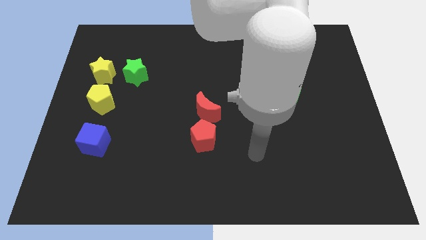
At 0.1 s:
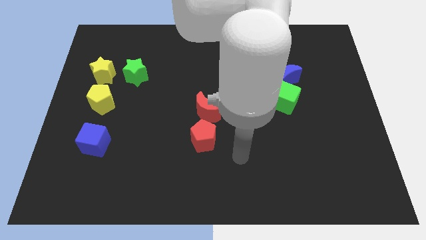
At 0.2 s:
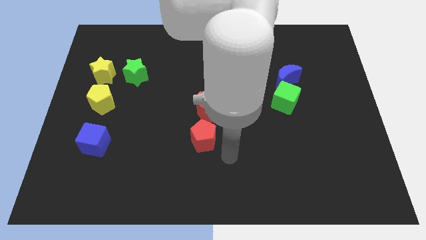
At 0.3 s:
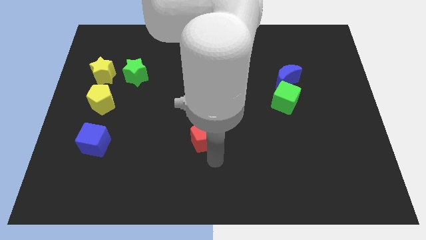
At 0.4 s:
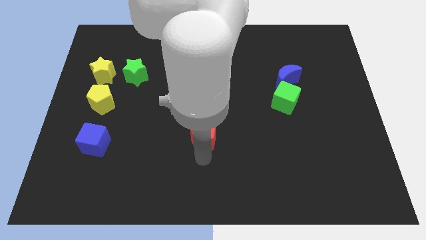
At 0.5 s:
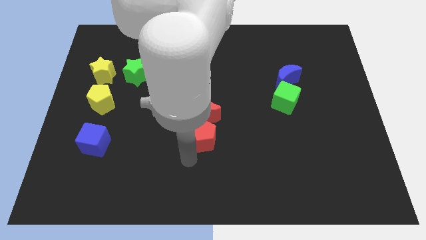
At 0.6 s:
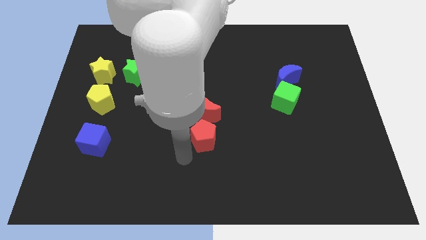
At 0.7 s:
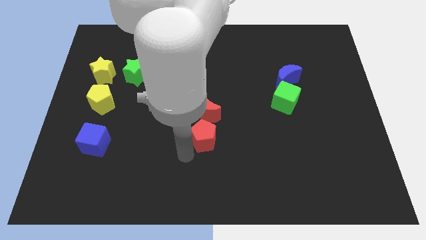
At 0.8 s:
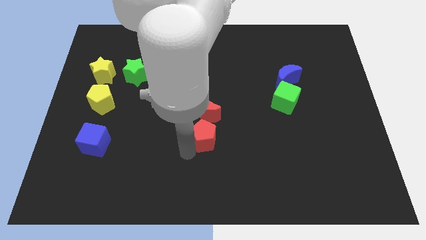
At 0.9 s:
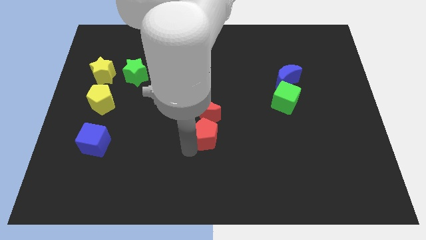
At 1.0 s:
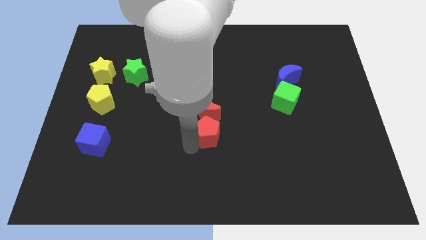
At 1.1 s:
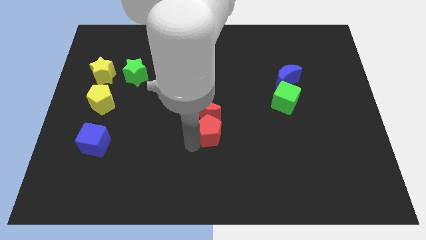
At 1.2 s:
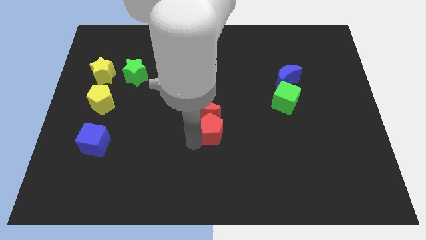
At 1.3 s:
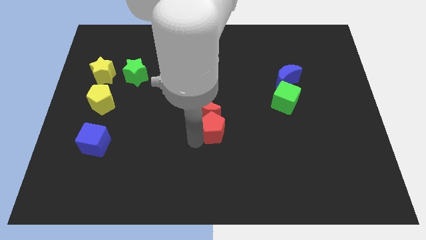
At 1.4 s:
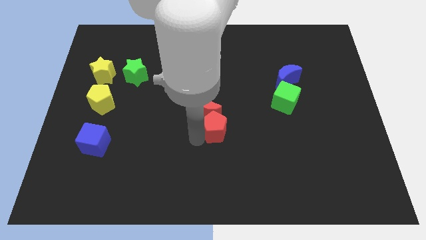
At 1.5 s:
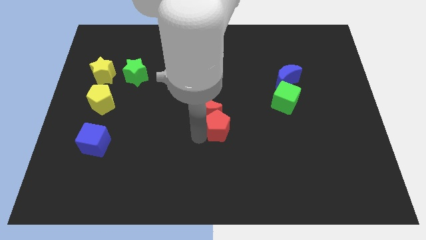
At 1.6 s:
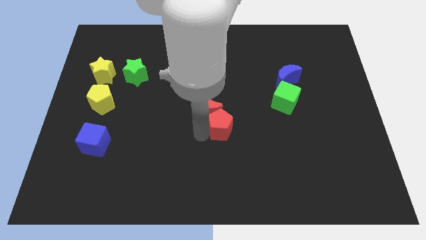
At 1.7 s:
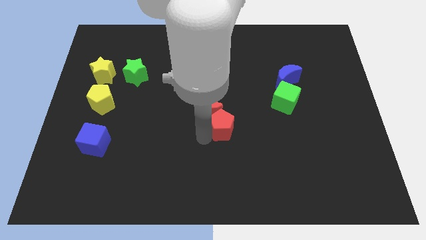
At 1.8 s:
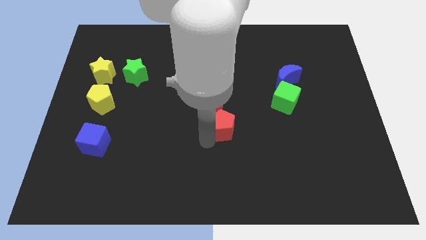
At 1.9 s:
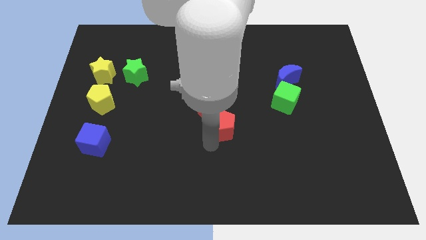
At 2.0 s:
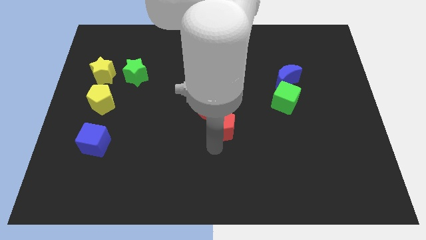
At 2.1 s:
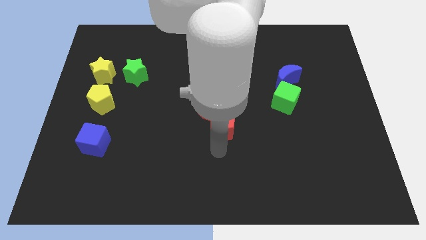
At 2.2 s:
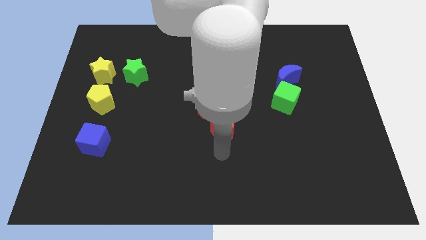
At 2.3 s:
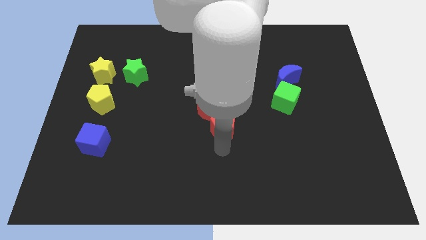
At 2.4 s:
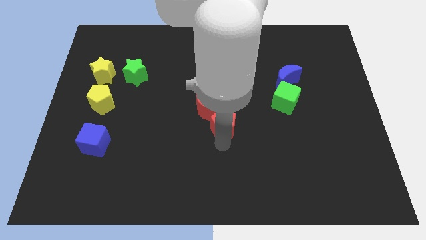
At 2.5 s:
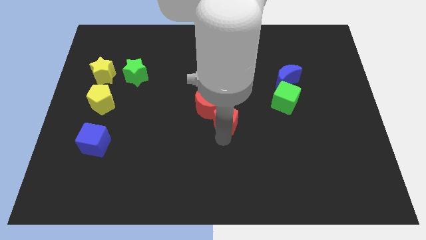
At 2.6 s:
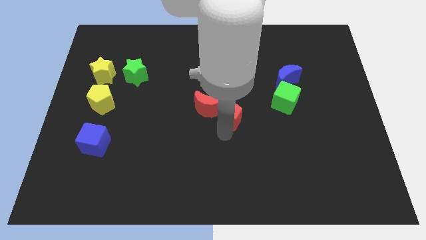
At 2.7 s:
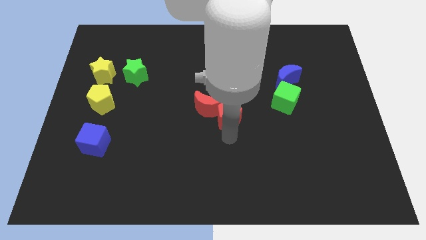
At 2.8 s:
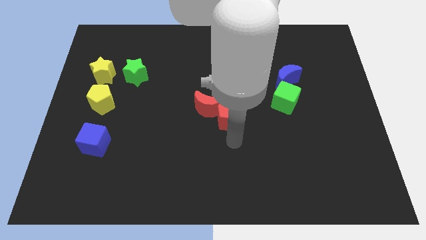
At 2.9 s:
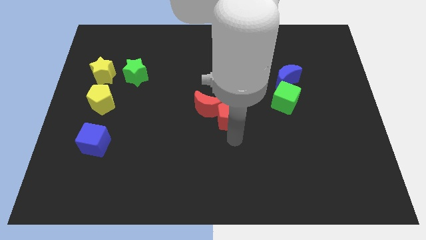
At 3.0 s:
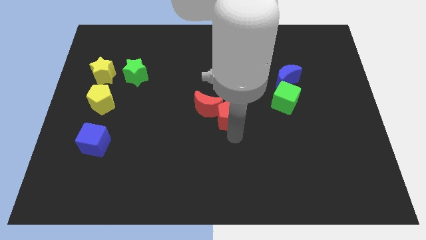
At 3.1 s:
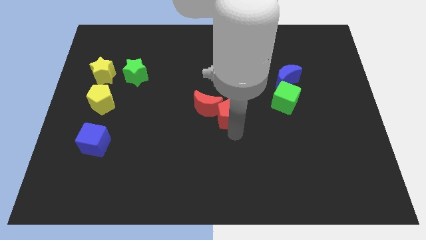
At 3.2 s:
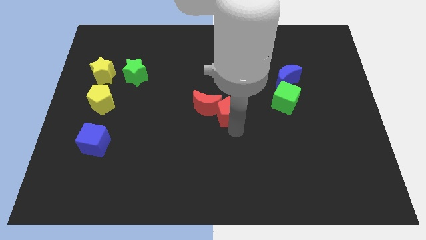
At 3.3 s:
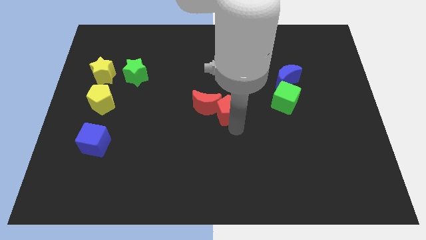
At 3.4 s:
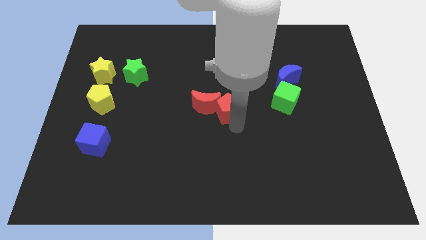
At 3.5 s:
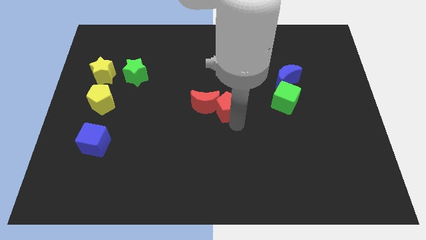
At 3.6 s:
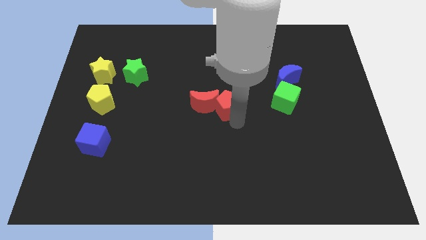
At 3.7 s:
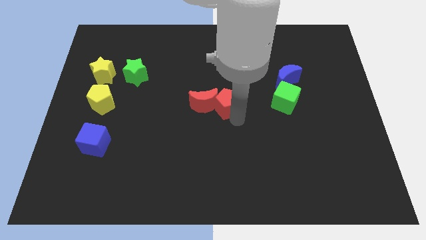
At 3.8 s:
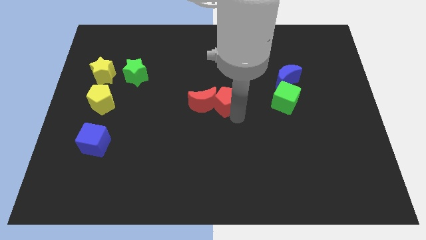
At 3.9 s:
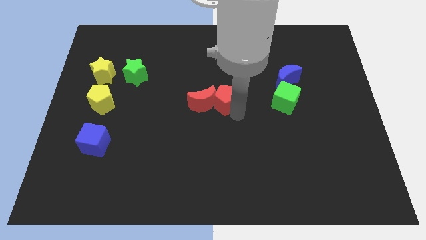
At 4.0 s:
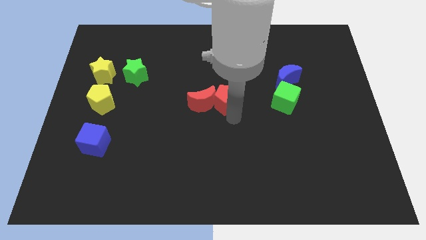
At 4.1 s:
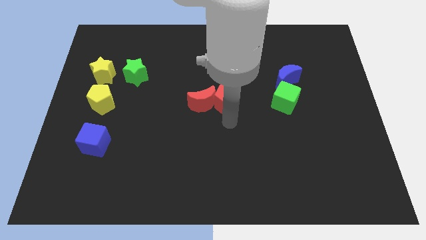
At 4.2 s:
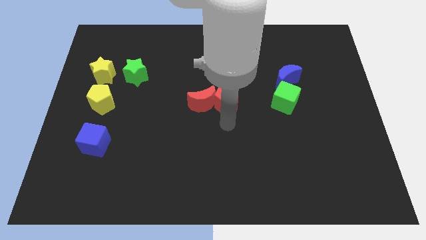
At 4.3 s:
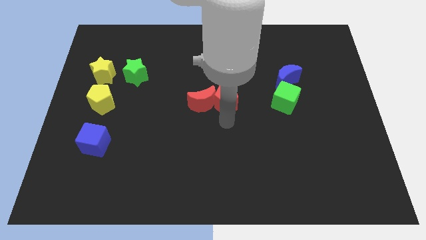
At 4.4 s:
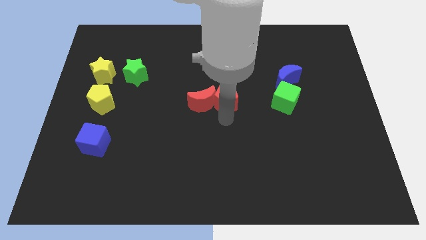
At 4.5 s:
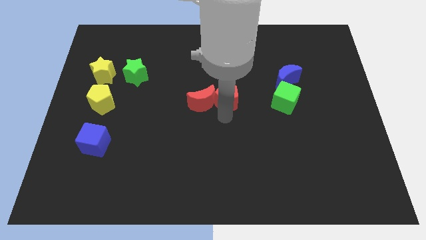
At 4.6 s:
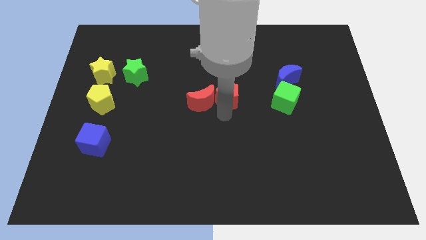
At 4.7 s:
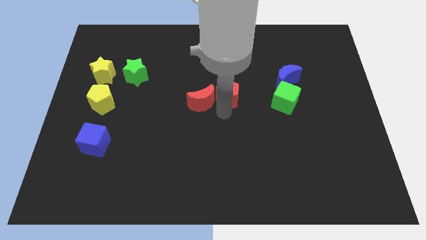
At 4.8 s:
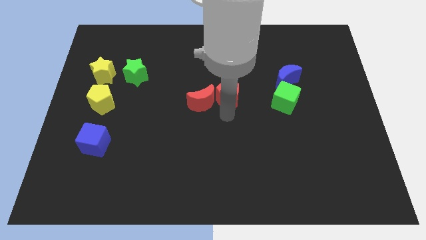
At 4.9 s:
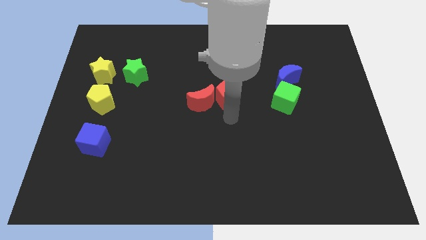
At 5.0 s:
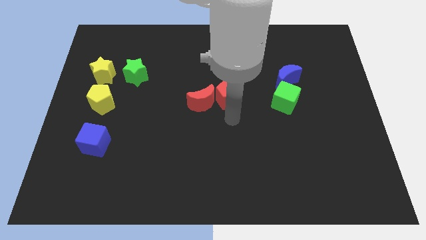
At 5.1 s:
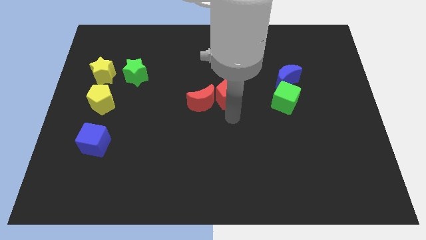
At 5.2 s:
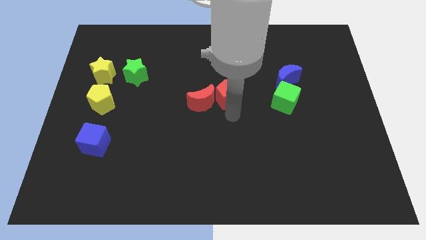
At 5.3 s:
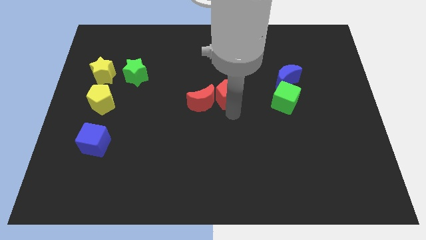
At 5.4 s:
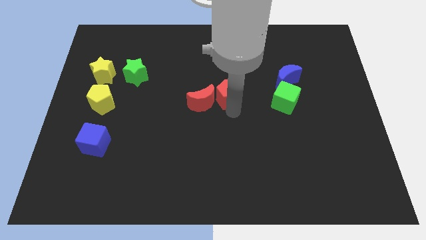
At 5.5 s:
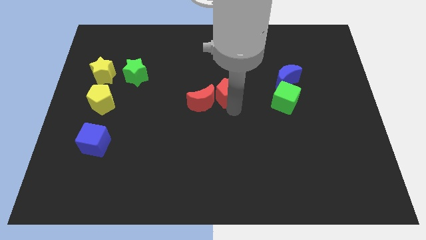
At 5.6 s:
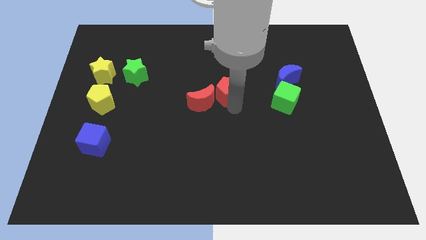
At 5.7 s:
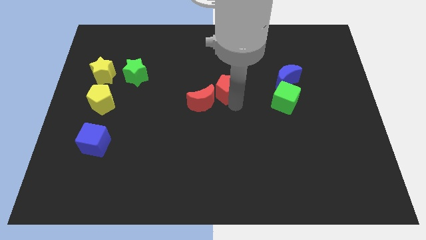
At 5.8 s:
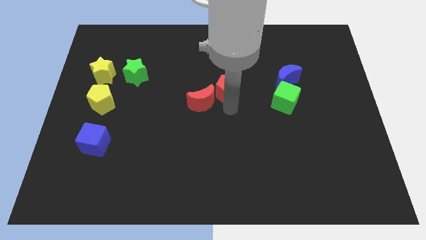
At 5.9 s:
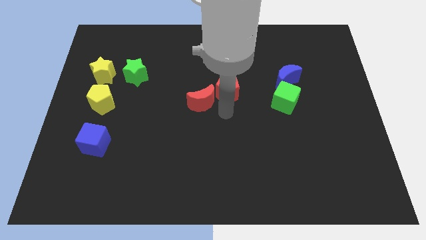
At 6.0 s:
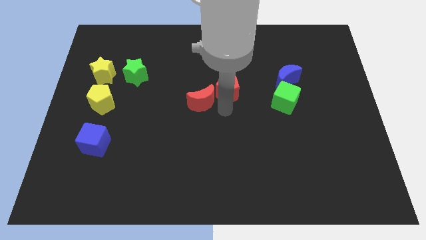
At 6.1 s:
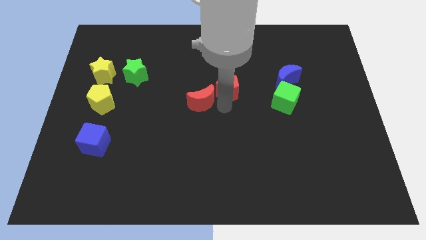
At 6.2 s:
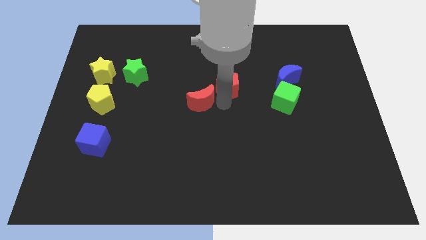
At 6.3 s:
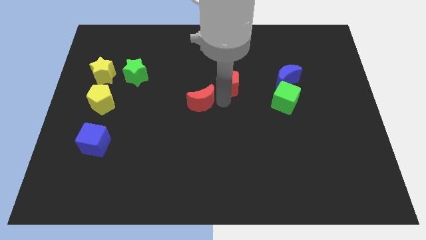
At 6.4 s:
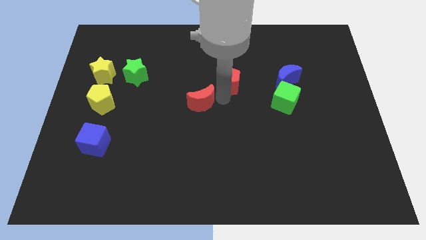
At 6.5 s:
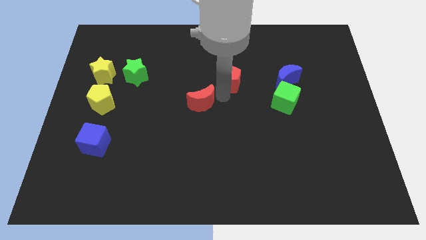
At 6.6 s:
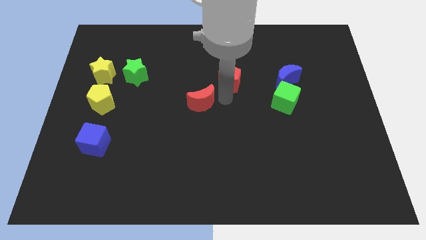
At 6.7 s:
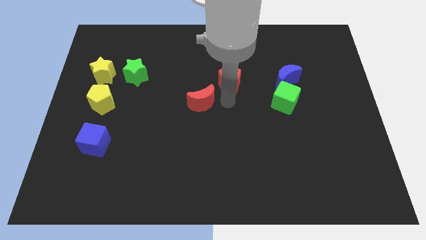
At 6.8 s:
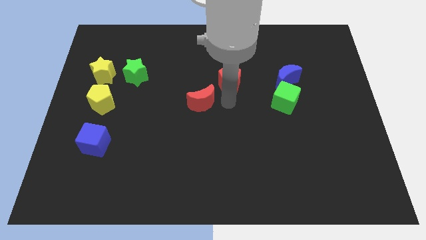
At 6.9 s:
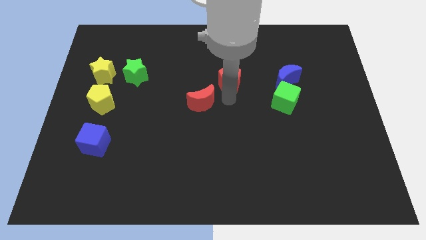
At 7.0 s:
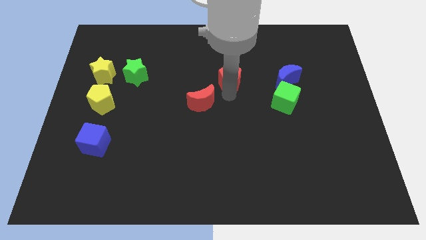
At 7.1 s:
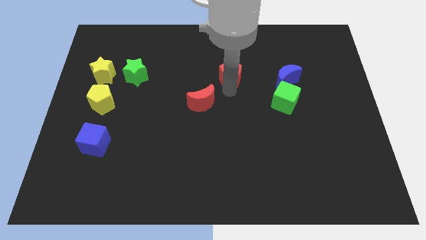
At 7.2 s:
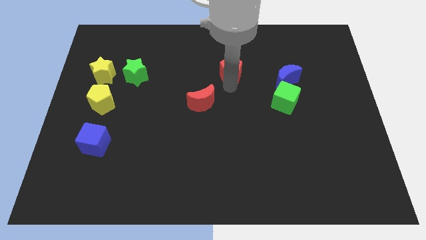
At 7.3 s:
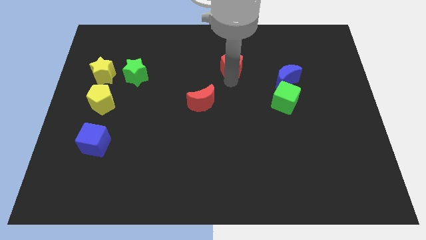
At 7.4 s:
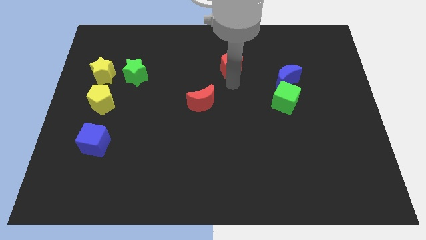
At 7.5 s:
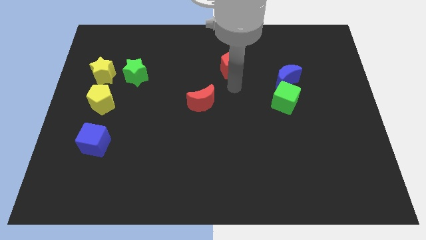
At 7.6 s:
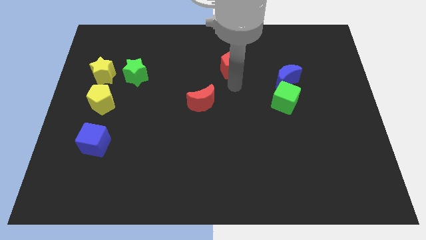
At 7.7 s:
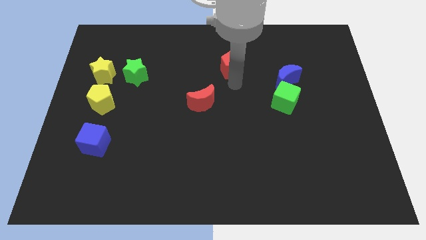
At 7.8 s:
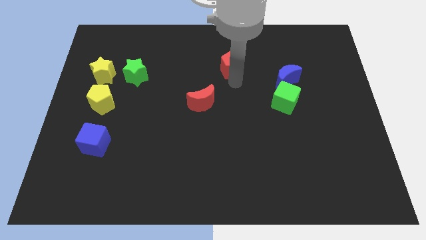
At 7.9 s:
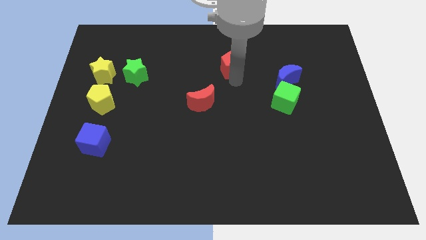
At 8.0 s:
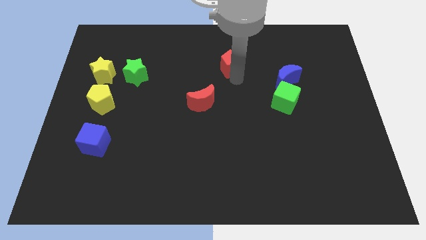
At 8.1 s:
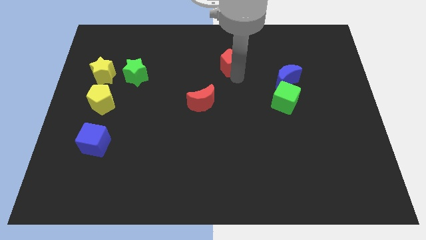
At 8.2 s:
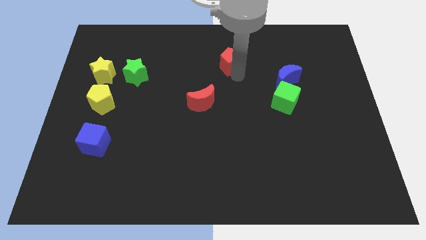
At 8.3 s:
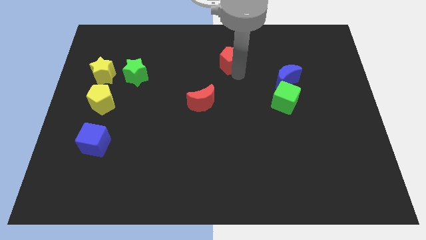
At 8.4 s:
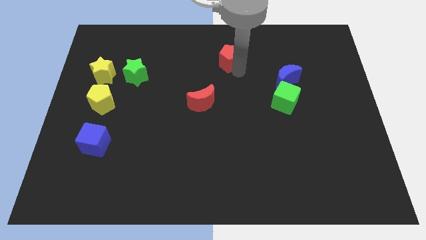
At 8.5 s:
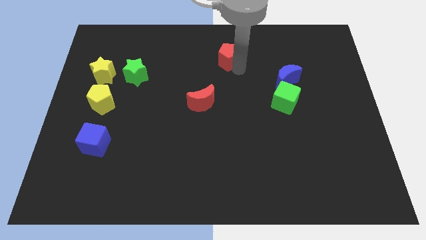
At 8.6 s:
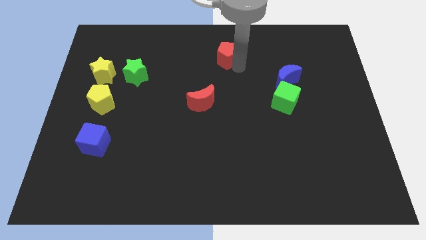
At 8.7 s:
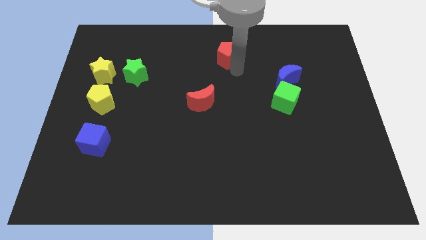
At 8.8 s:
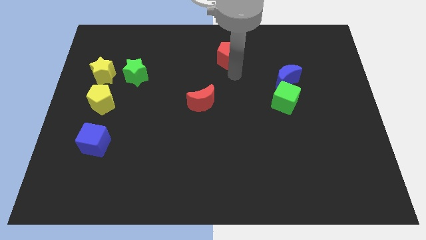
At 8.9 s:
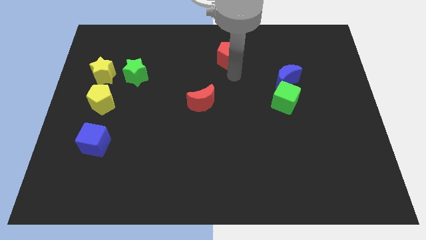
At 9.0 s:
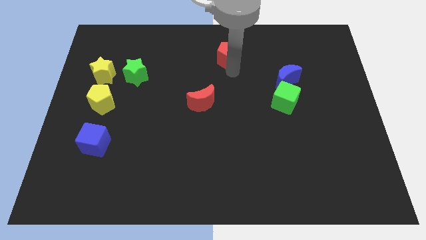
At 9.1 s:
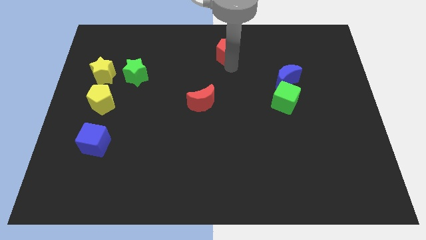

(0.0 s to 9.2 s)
push the red pentagon to the top side
